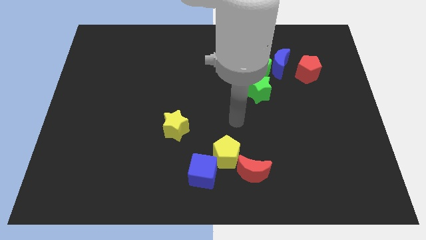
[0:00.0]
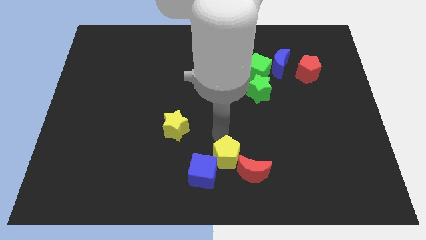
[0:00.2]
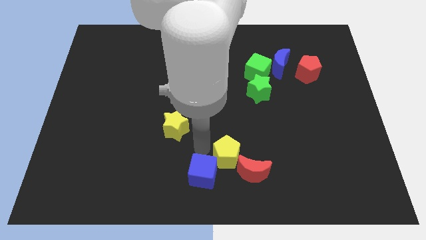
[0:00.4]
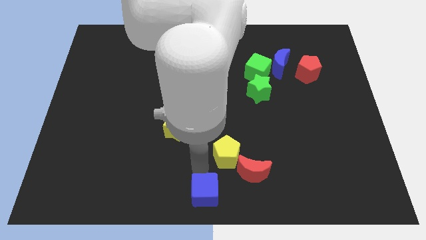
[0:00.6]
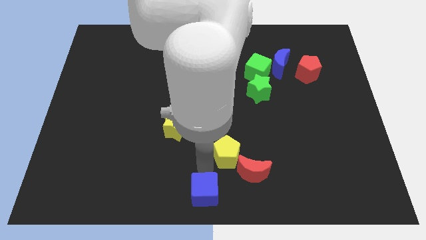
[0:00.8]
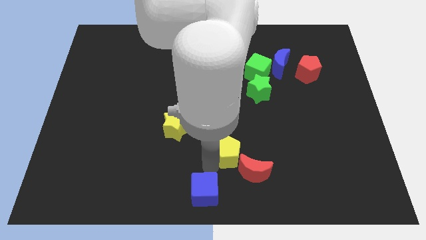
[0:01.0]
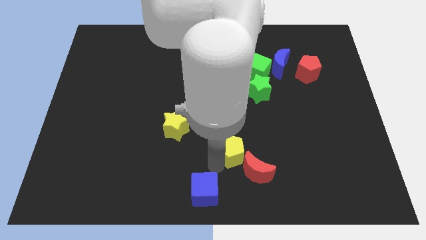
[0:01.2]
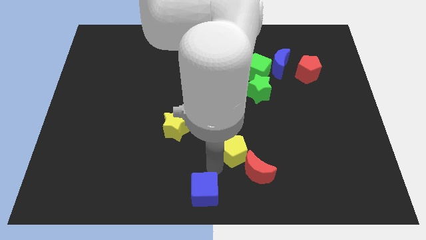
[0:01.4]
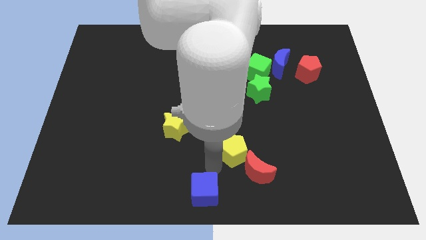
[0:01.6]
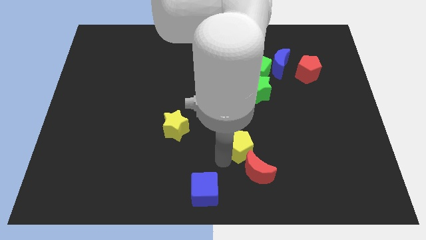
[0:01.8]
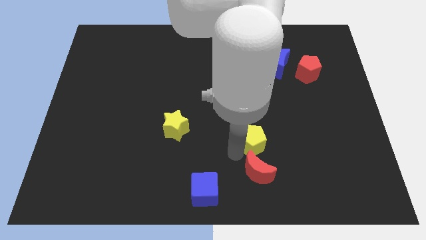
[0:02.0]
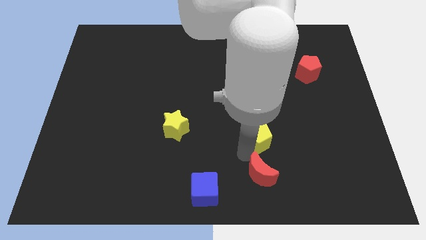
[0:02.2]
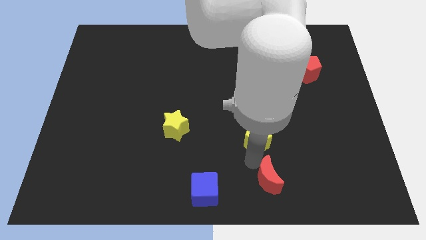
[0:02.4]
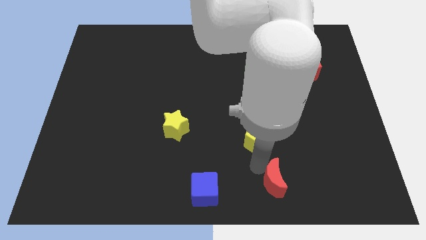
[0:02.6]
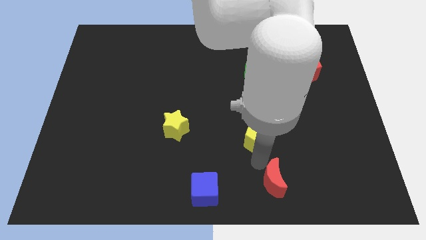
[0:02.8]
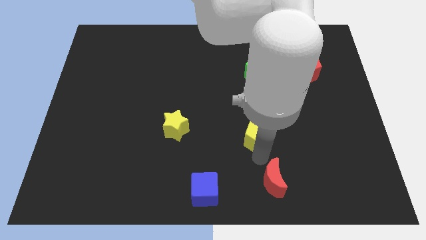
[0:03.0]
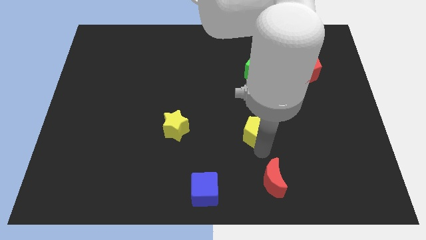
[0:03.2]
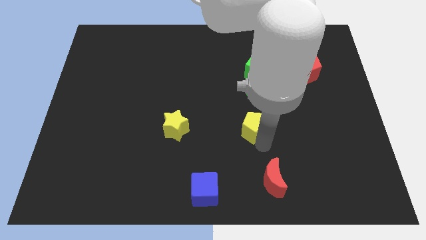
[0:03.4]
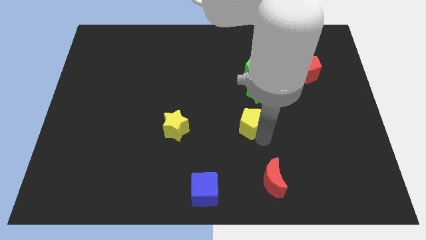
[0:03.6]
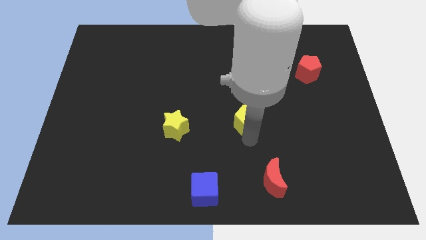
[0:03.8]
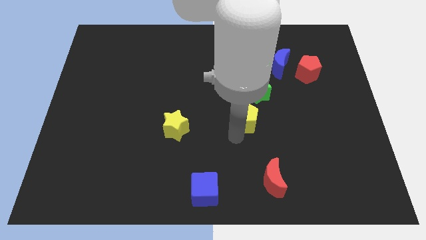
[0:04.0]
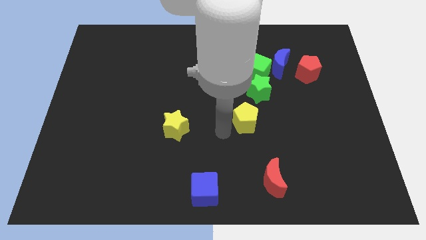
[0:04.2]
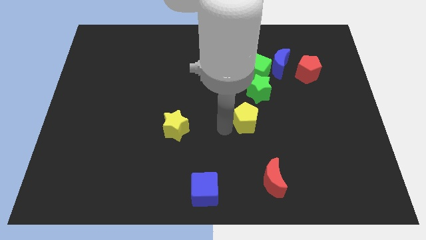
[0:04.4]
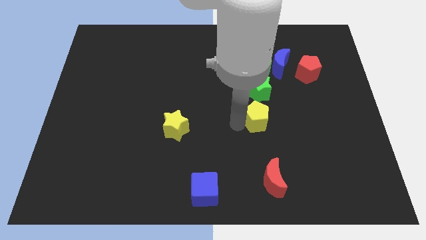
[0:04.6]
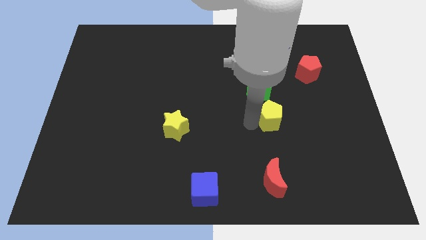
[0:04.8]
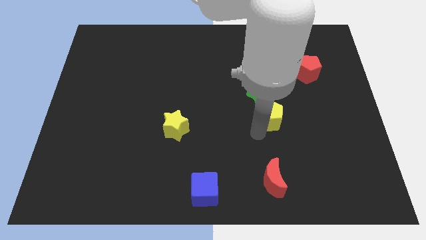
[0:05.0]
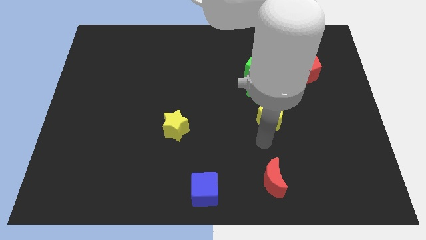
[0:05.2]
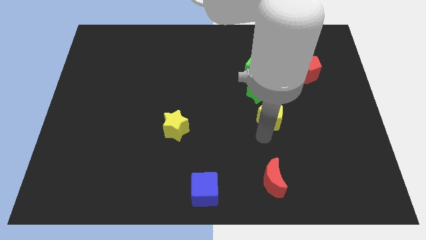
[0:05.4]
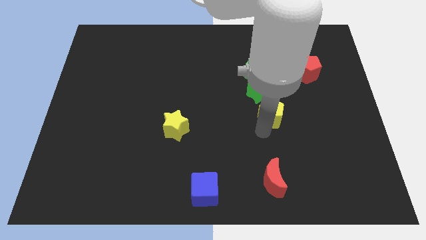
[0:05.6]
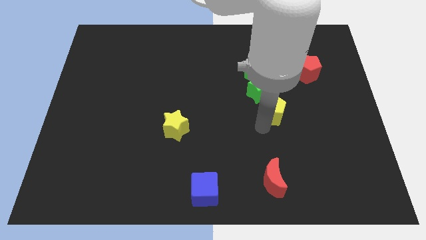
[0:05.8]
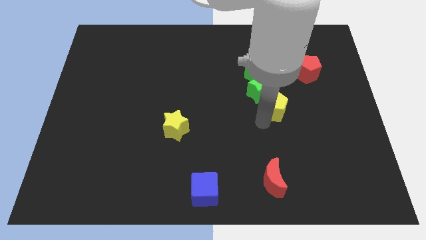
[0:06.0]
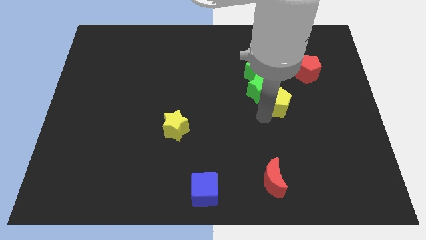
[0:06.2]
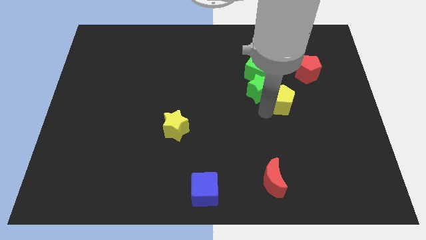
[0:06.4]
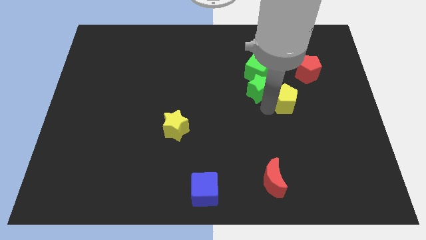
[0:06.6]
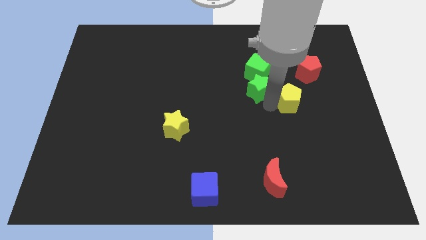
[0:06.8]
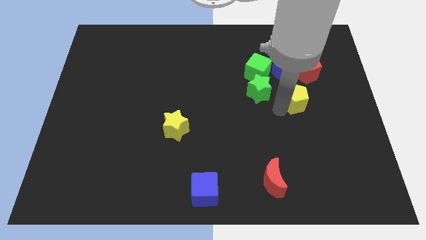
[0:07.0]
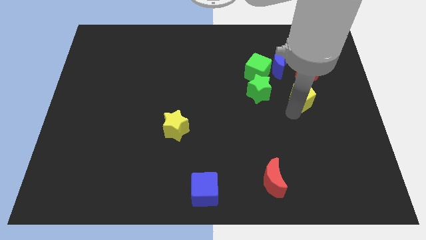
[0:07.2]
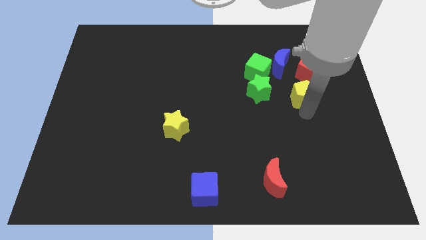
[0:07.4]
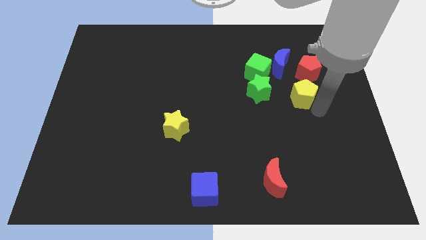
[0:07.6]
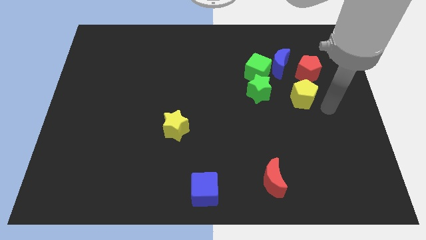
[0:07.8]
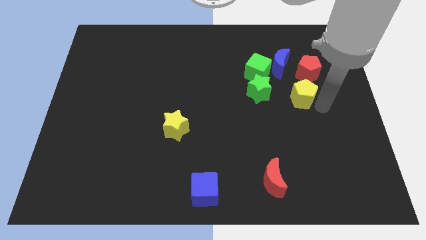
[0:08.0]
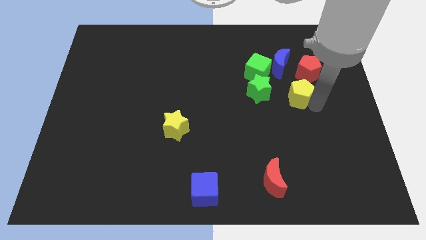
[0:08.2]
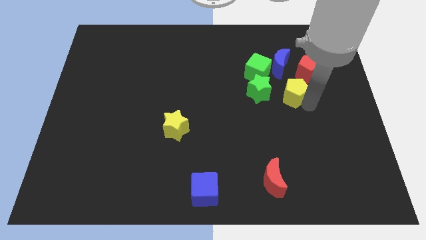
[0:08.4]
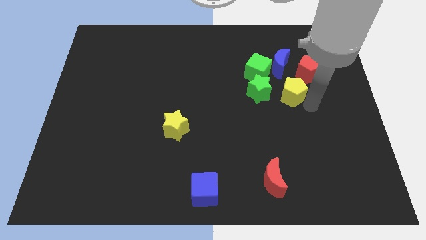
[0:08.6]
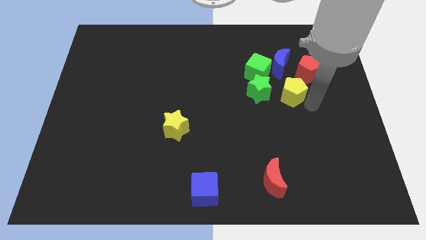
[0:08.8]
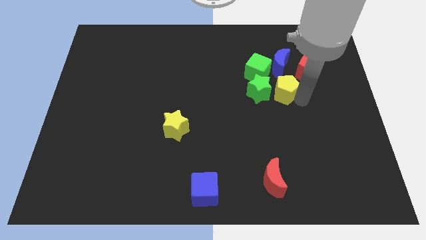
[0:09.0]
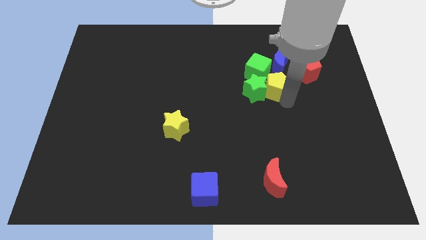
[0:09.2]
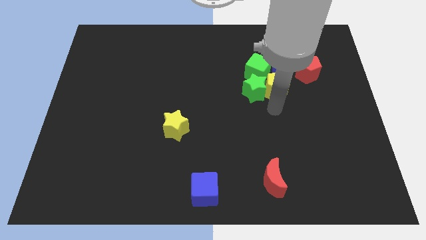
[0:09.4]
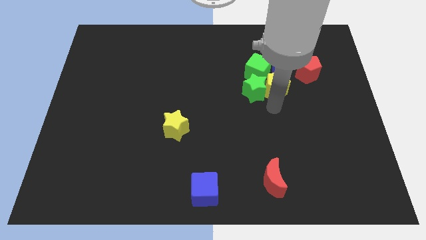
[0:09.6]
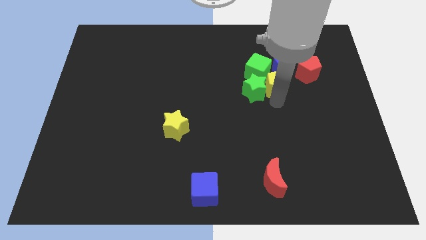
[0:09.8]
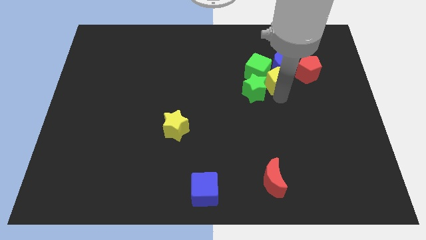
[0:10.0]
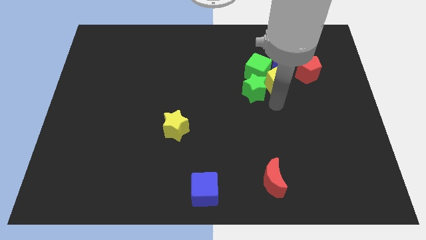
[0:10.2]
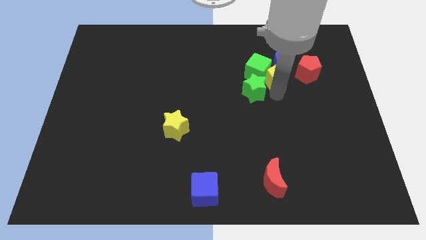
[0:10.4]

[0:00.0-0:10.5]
put the yellow pentagon towards the blue moon

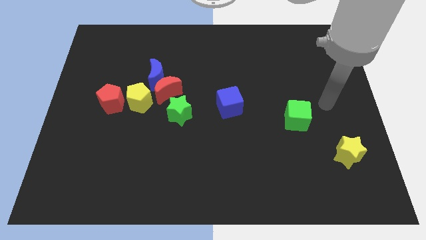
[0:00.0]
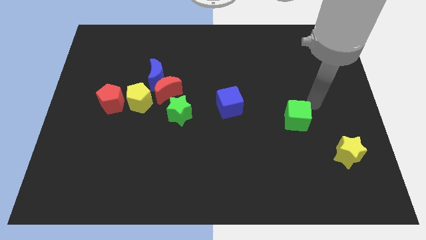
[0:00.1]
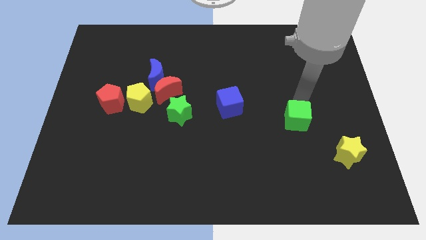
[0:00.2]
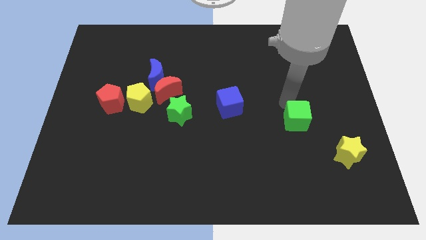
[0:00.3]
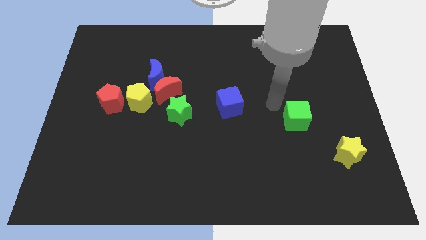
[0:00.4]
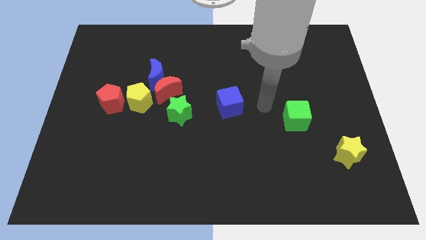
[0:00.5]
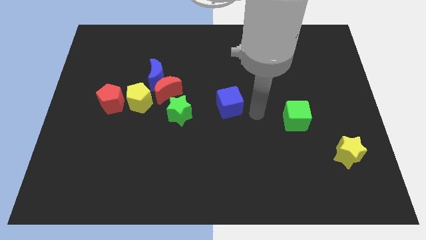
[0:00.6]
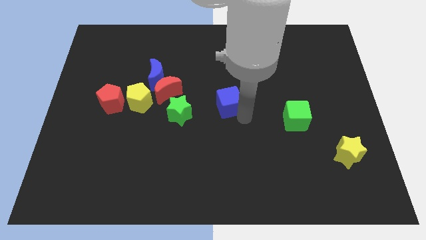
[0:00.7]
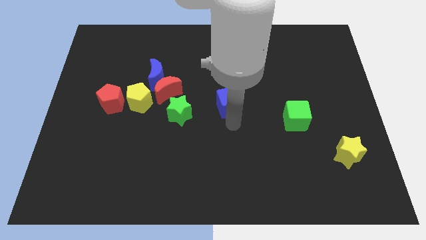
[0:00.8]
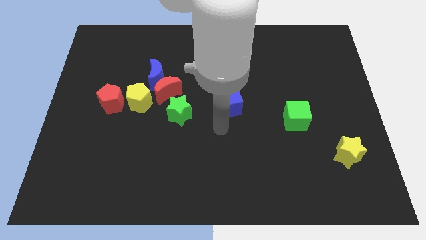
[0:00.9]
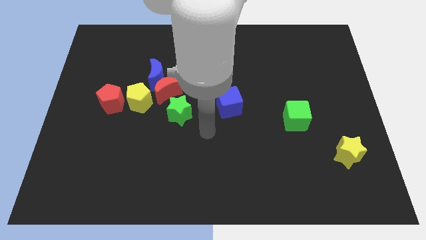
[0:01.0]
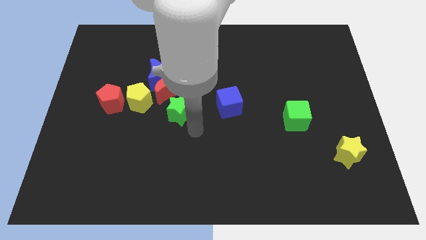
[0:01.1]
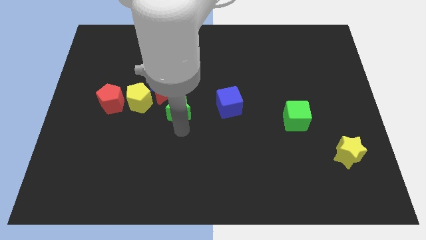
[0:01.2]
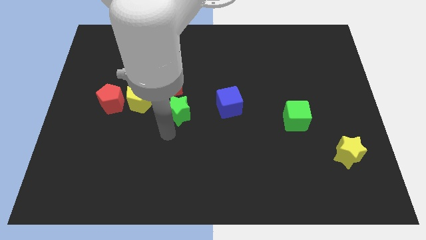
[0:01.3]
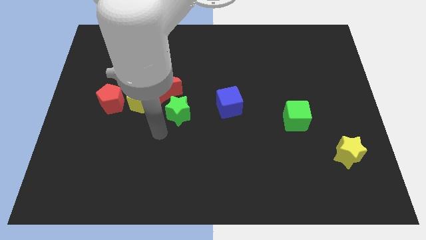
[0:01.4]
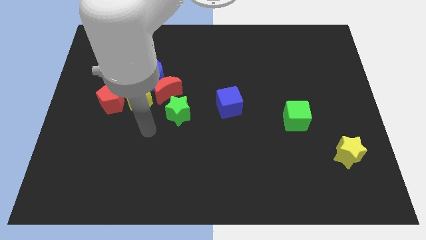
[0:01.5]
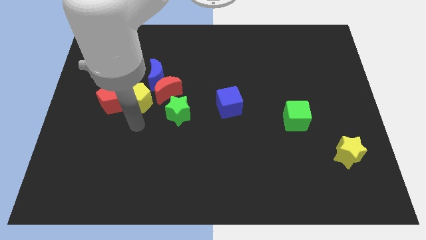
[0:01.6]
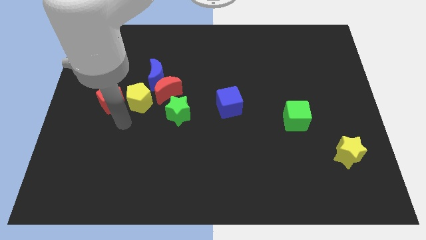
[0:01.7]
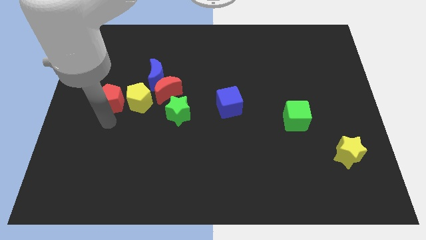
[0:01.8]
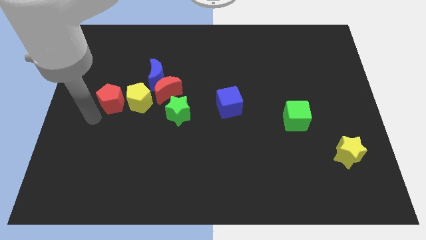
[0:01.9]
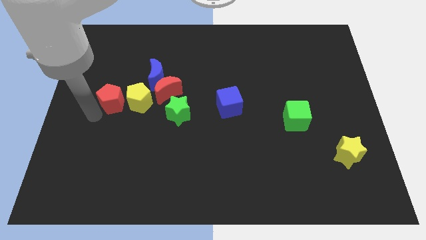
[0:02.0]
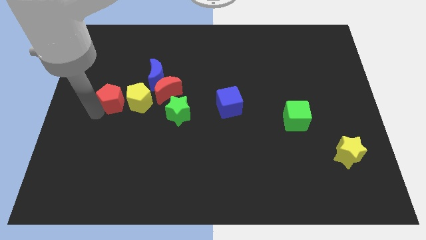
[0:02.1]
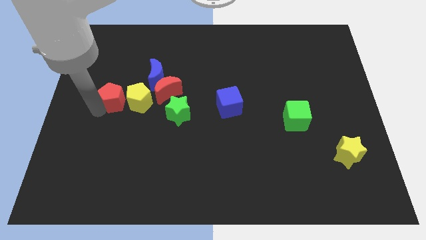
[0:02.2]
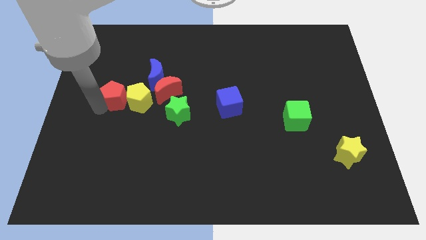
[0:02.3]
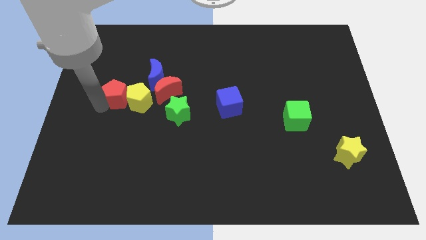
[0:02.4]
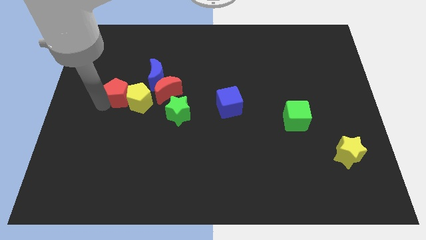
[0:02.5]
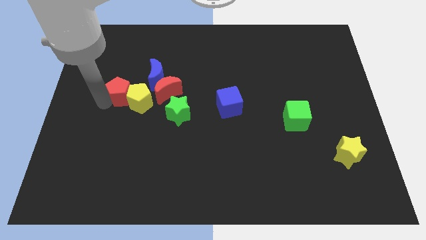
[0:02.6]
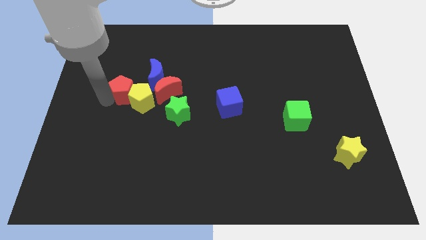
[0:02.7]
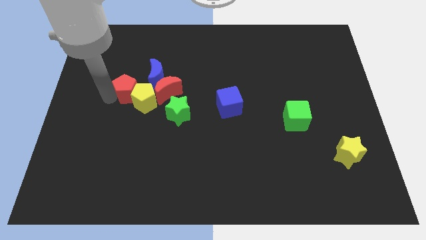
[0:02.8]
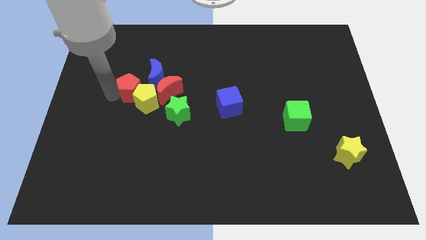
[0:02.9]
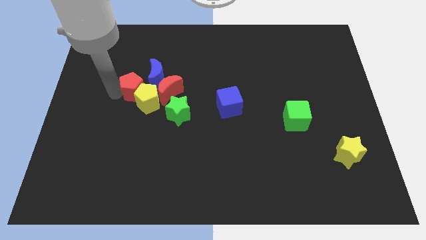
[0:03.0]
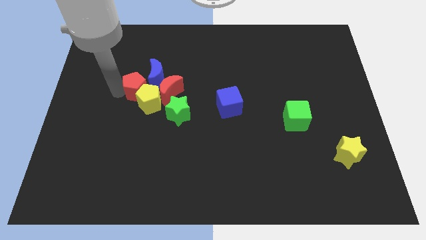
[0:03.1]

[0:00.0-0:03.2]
put the red pentagon towards the blue moon
